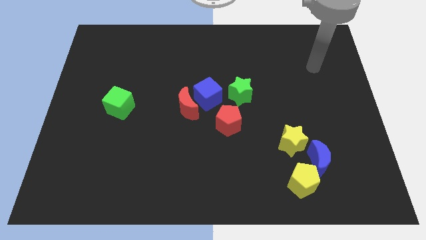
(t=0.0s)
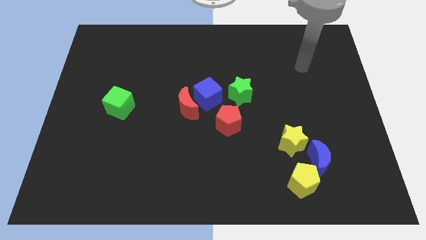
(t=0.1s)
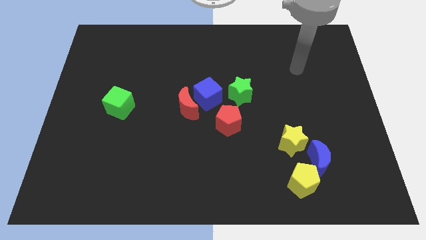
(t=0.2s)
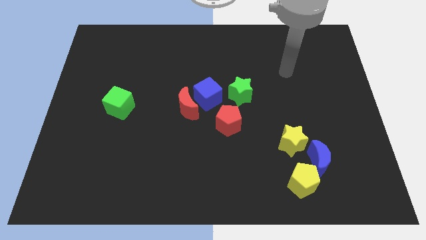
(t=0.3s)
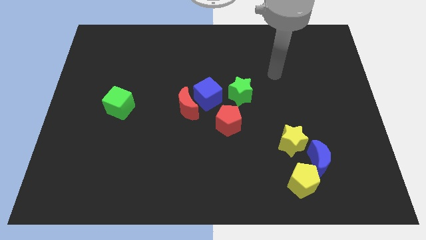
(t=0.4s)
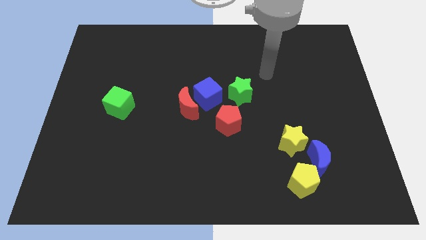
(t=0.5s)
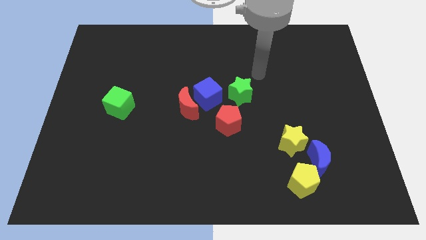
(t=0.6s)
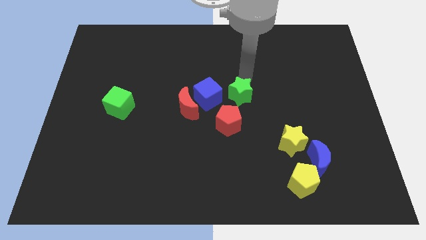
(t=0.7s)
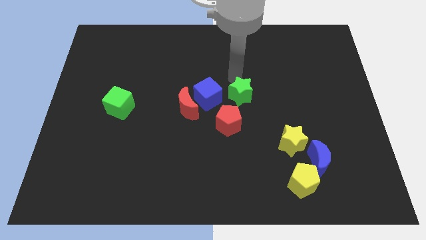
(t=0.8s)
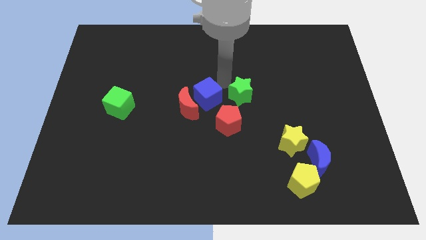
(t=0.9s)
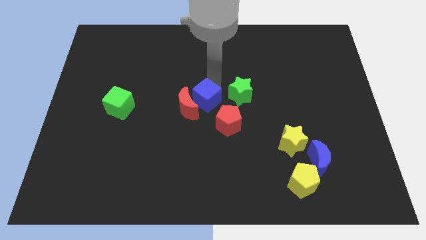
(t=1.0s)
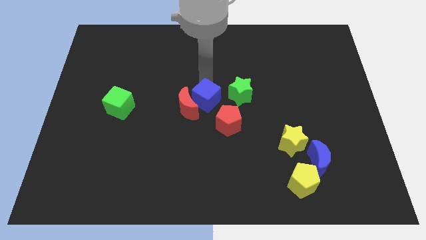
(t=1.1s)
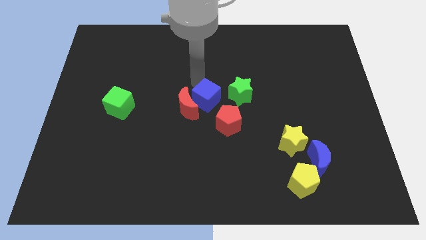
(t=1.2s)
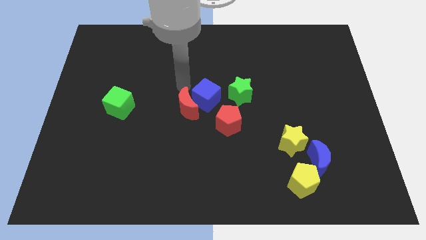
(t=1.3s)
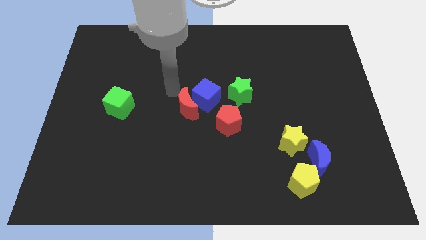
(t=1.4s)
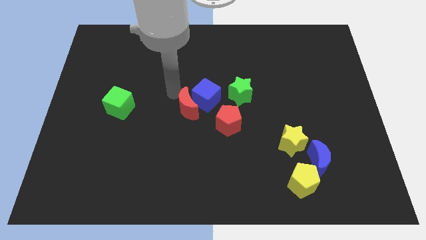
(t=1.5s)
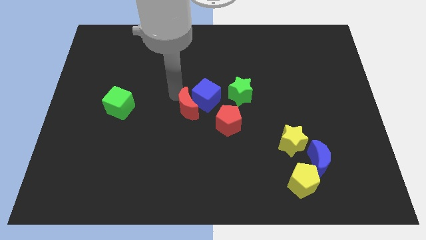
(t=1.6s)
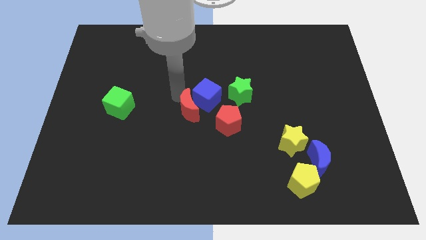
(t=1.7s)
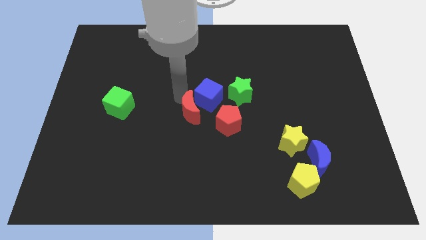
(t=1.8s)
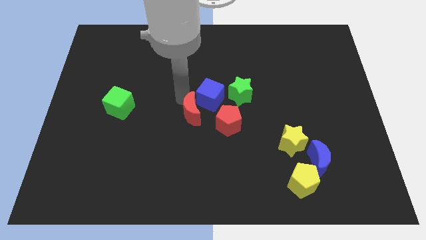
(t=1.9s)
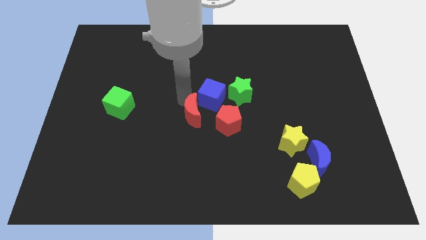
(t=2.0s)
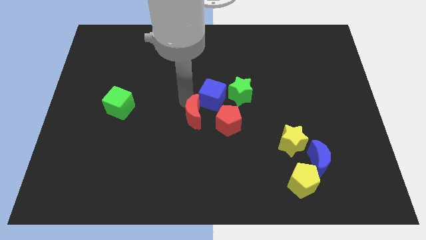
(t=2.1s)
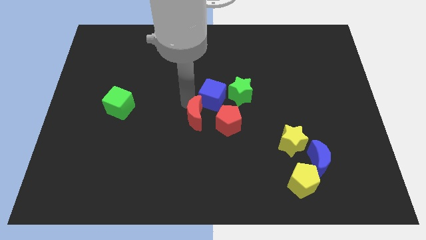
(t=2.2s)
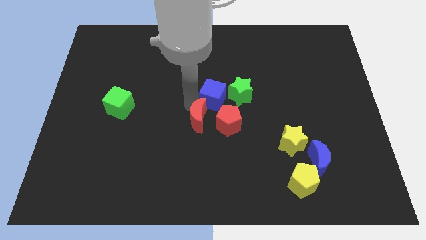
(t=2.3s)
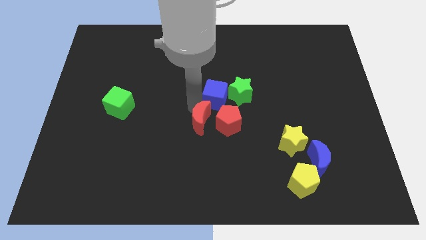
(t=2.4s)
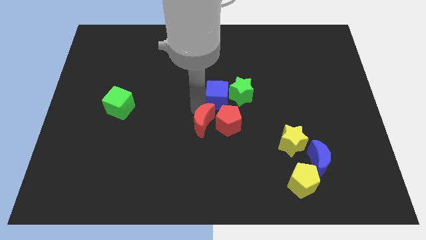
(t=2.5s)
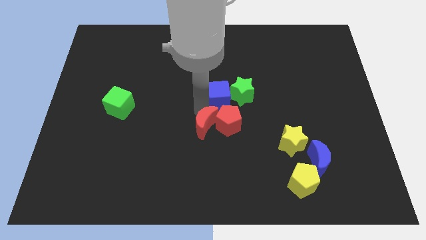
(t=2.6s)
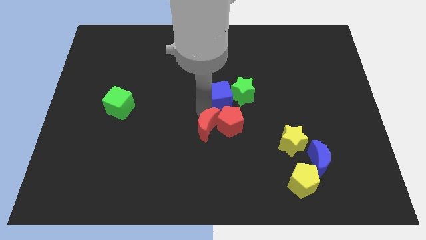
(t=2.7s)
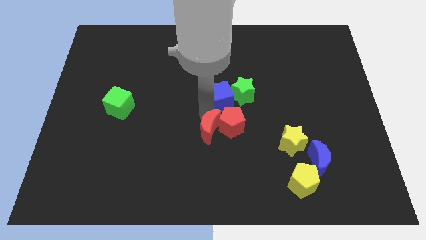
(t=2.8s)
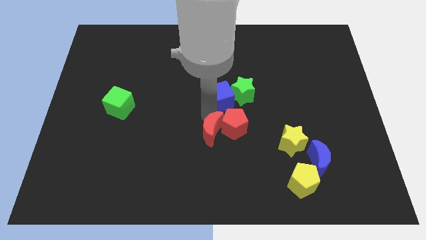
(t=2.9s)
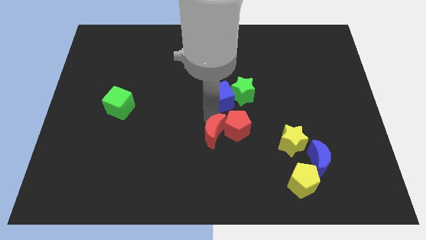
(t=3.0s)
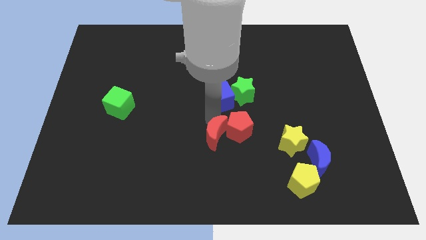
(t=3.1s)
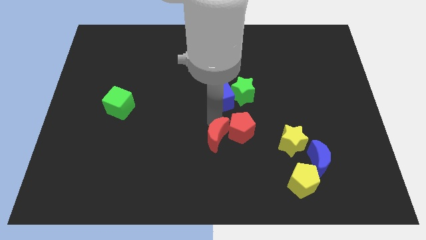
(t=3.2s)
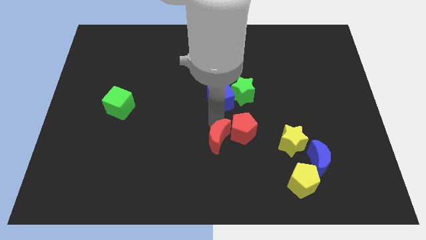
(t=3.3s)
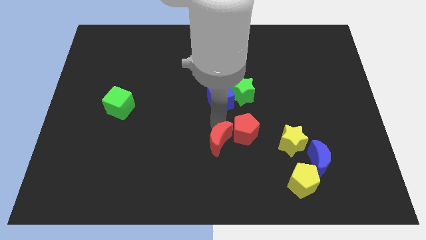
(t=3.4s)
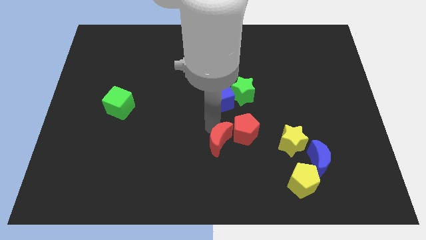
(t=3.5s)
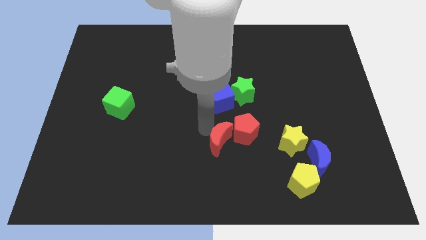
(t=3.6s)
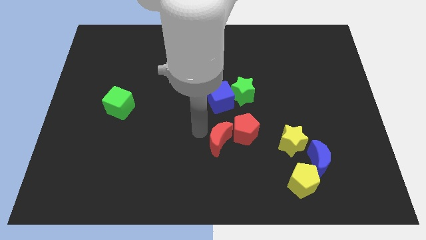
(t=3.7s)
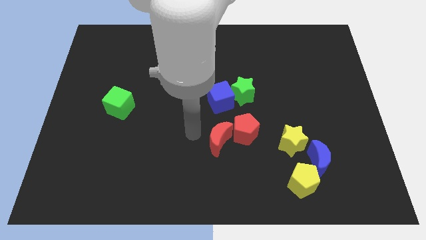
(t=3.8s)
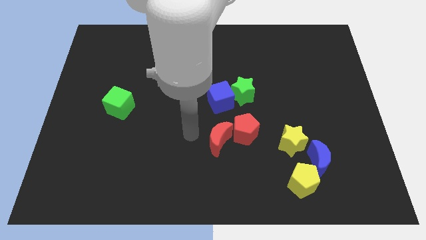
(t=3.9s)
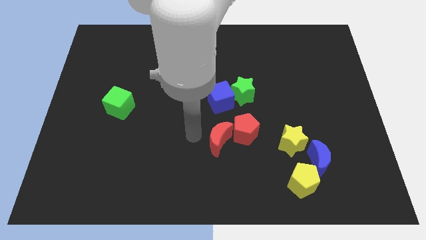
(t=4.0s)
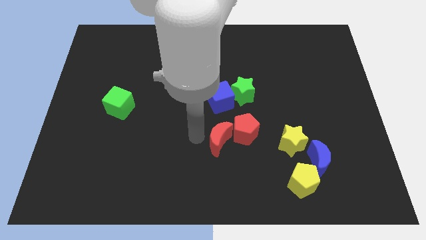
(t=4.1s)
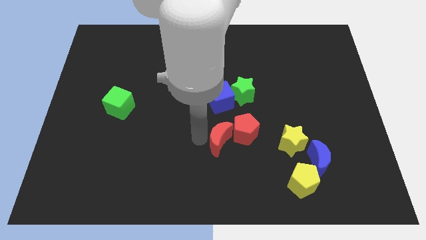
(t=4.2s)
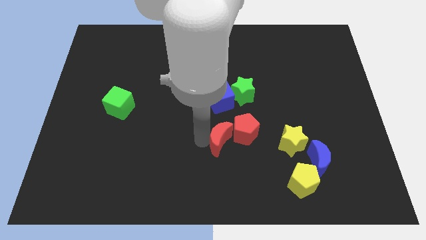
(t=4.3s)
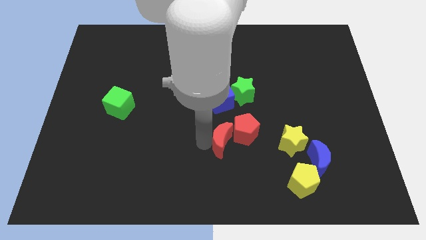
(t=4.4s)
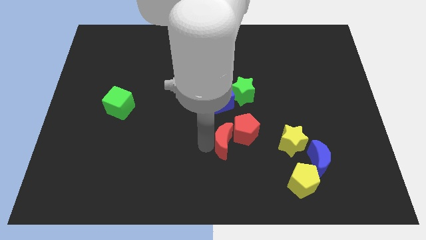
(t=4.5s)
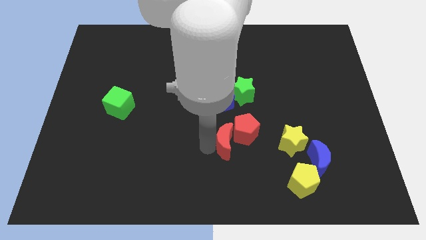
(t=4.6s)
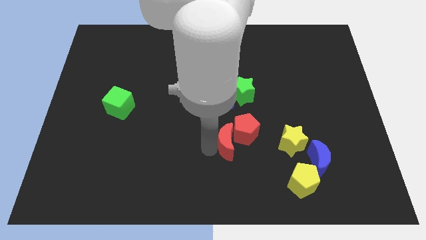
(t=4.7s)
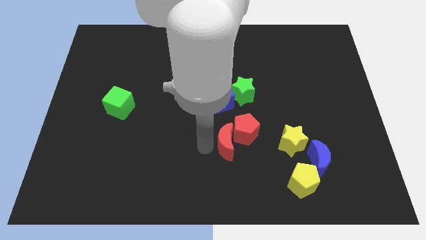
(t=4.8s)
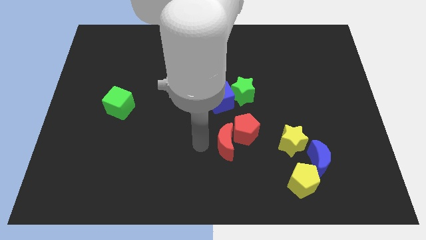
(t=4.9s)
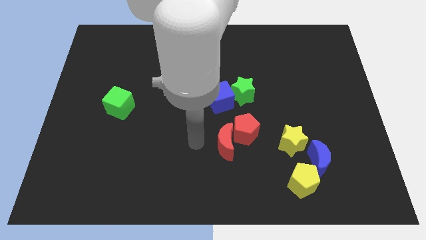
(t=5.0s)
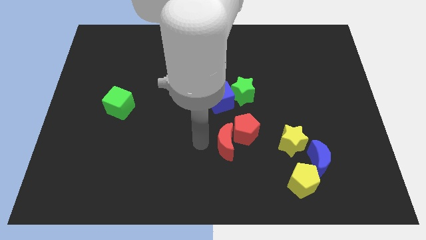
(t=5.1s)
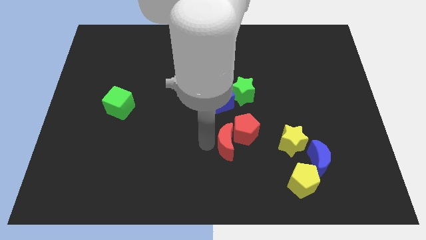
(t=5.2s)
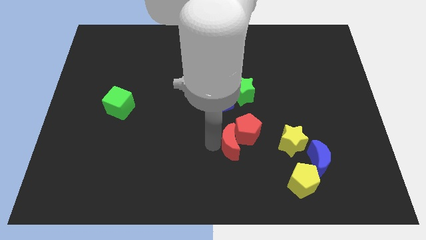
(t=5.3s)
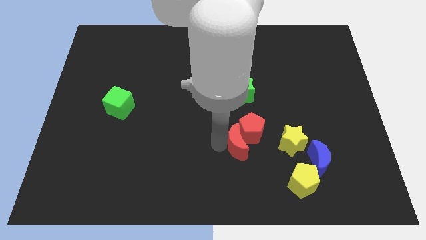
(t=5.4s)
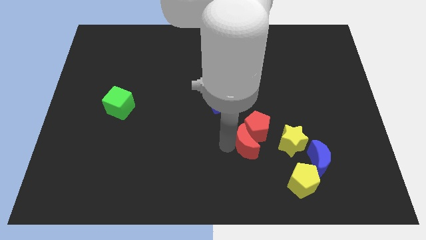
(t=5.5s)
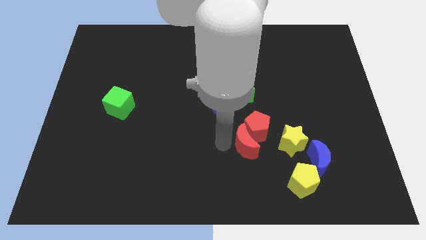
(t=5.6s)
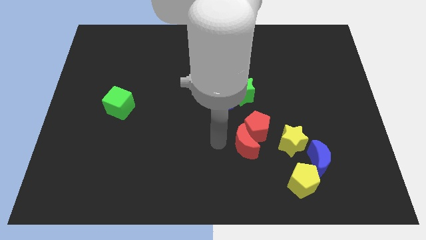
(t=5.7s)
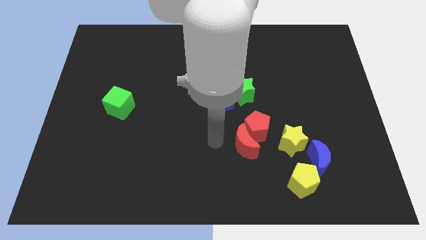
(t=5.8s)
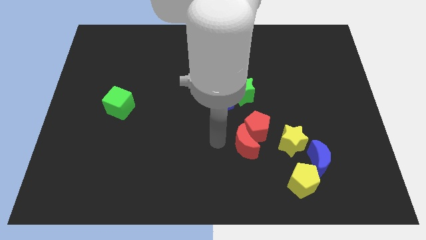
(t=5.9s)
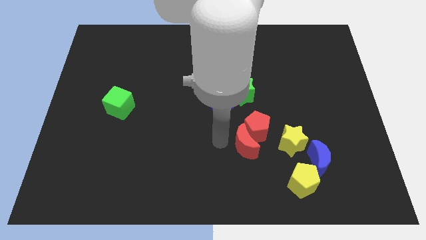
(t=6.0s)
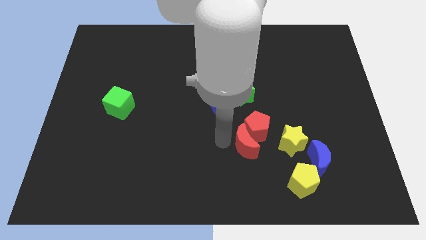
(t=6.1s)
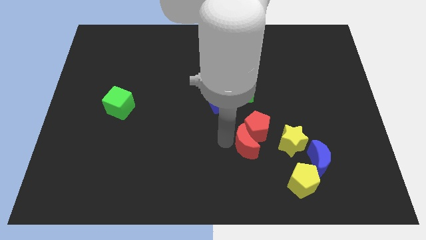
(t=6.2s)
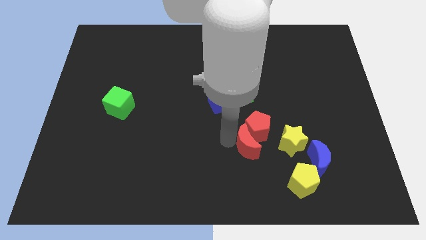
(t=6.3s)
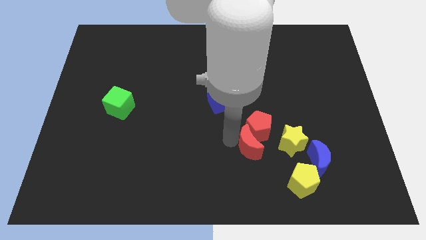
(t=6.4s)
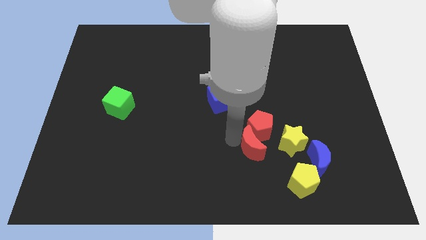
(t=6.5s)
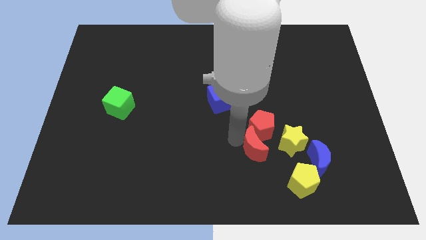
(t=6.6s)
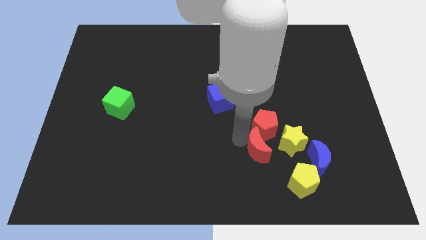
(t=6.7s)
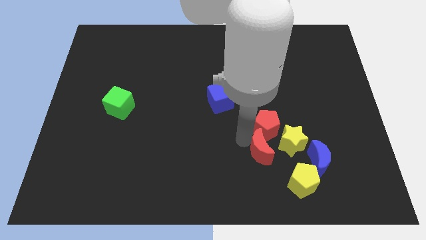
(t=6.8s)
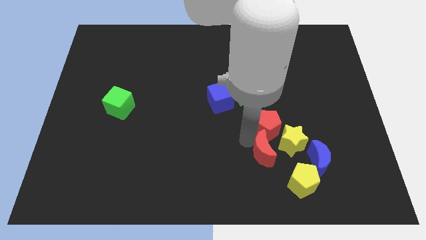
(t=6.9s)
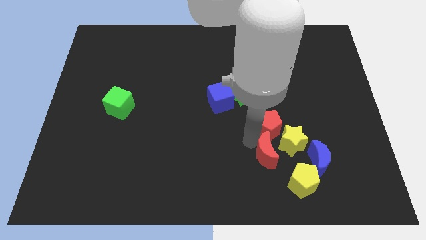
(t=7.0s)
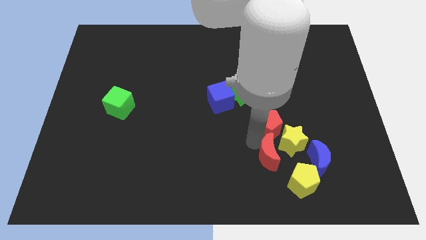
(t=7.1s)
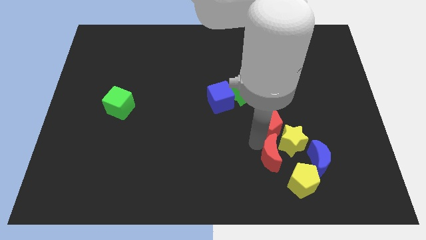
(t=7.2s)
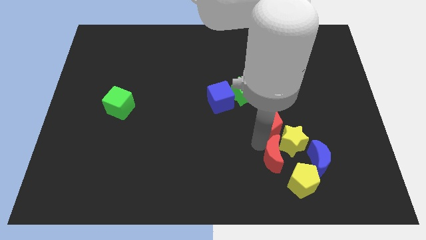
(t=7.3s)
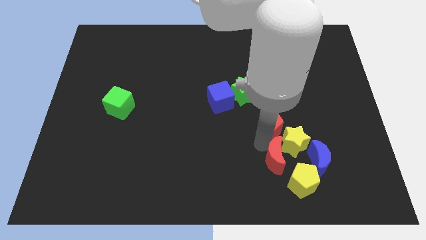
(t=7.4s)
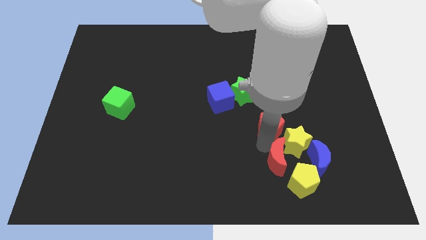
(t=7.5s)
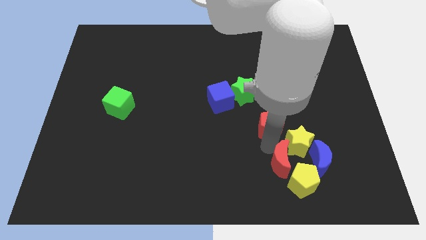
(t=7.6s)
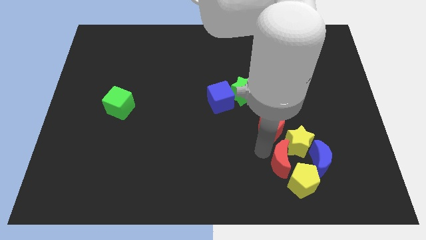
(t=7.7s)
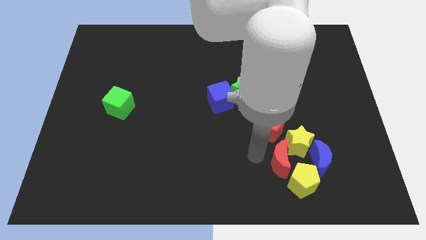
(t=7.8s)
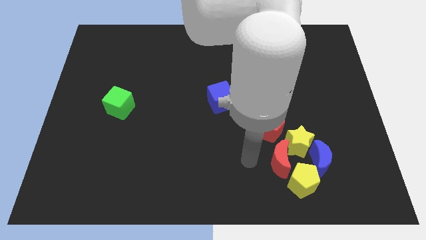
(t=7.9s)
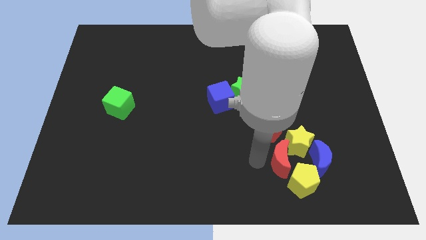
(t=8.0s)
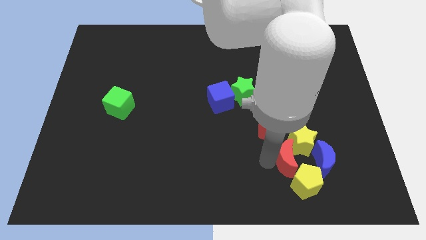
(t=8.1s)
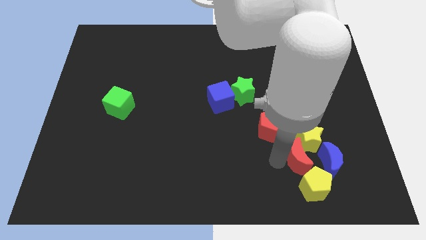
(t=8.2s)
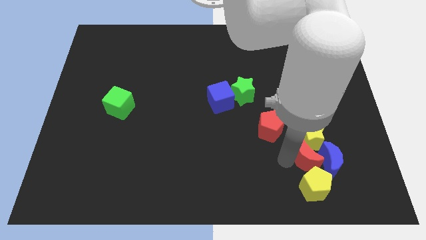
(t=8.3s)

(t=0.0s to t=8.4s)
put the red moon close to the blue moon
